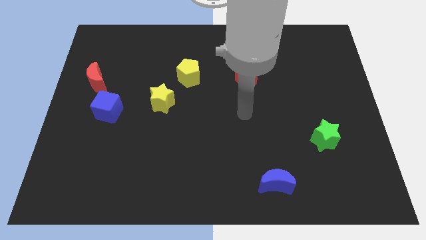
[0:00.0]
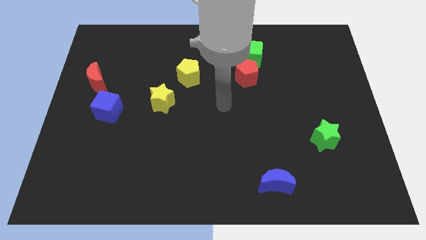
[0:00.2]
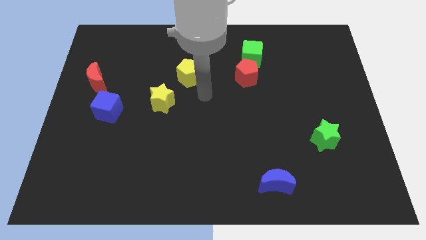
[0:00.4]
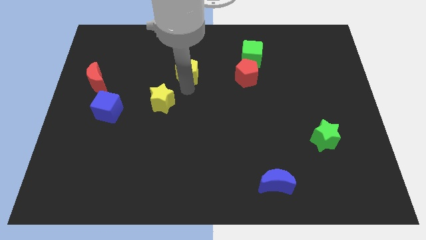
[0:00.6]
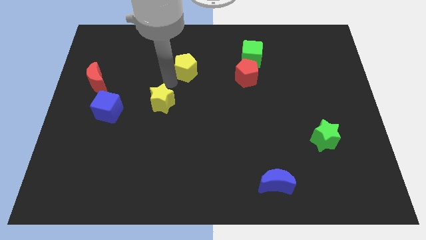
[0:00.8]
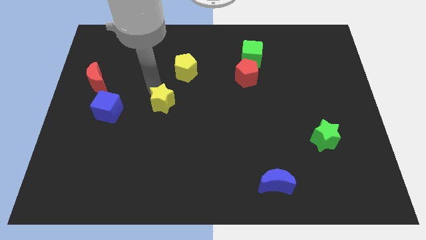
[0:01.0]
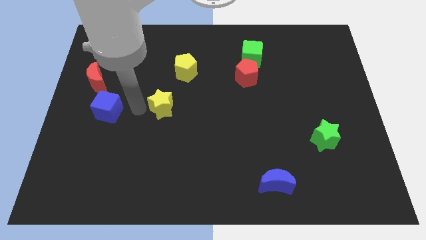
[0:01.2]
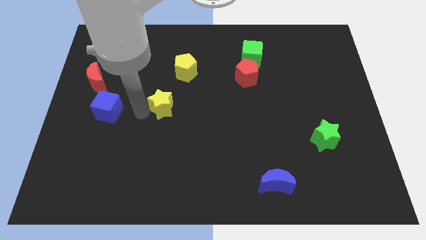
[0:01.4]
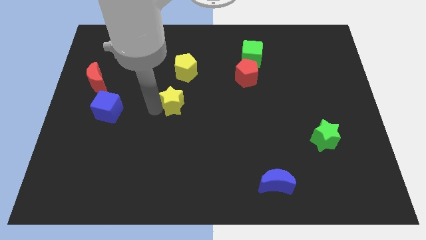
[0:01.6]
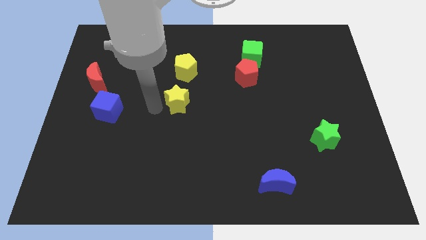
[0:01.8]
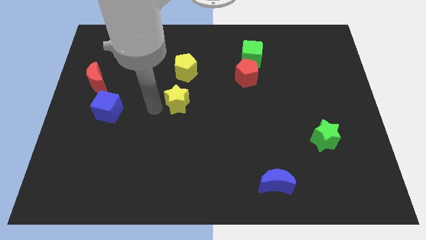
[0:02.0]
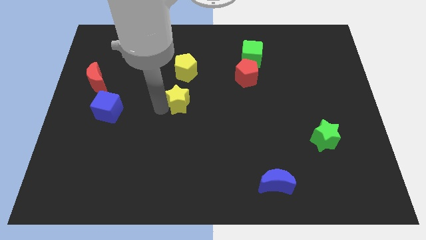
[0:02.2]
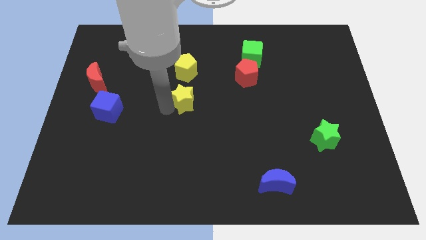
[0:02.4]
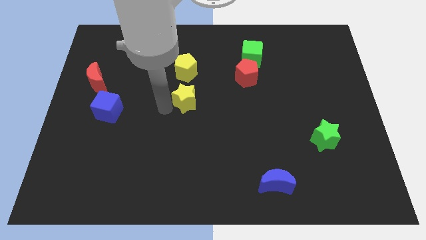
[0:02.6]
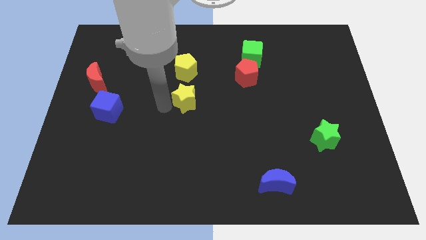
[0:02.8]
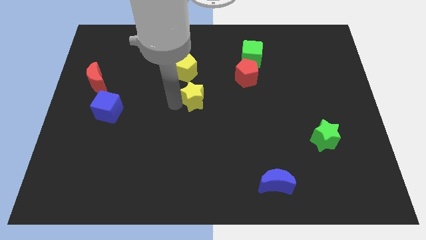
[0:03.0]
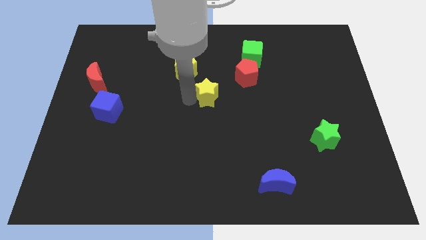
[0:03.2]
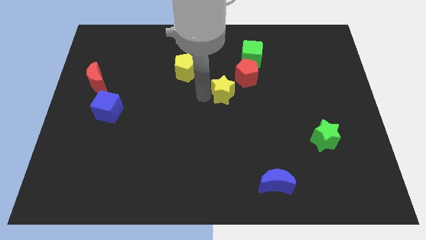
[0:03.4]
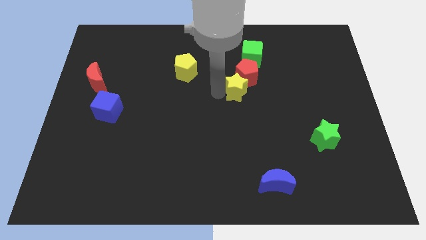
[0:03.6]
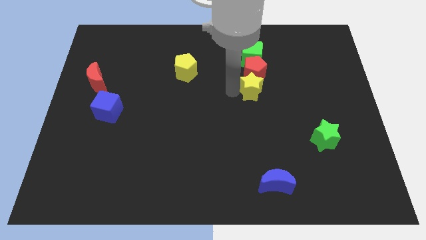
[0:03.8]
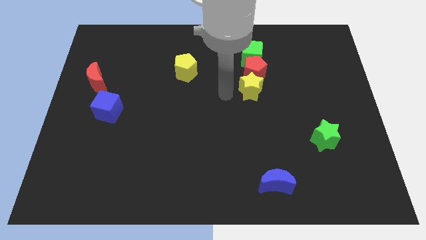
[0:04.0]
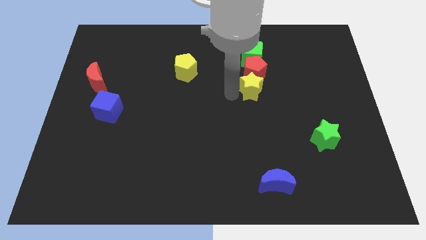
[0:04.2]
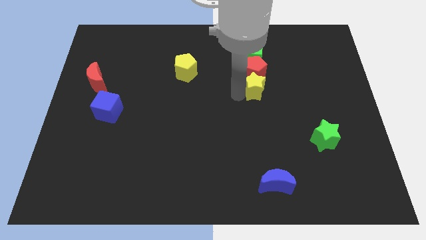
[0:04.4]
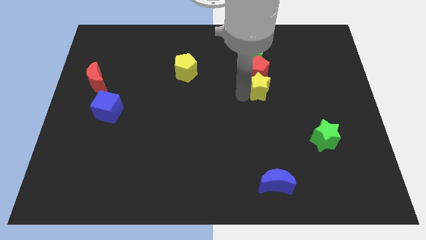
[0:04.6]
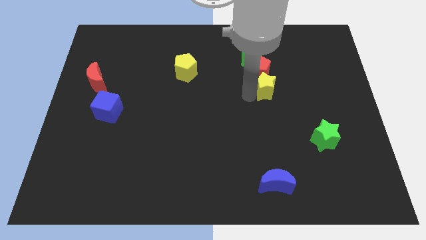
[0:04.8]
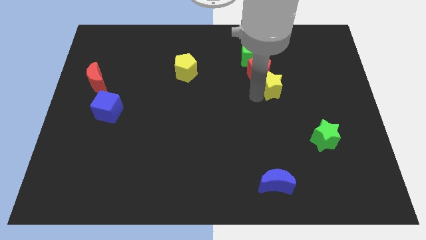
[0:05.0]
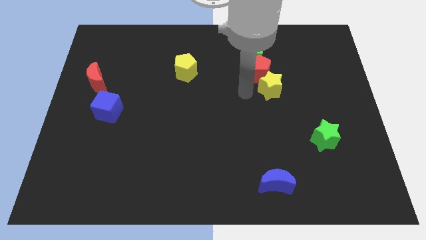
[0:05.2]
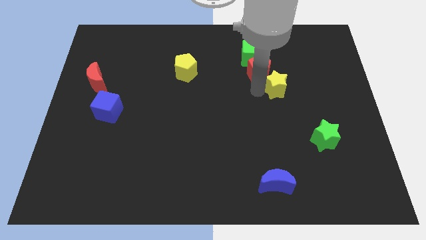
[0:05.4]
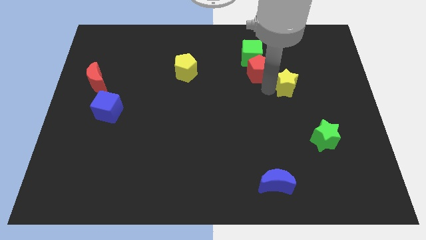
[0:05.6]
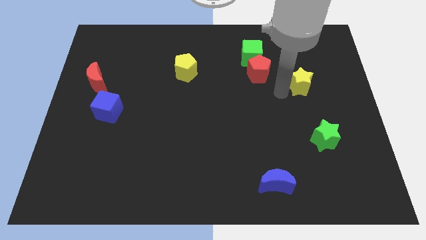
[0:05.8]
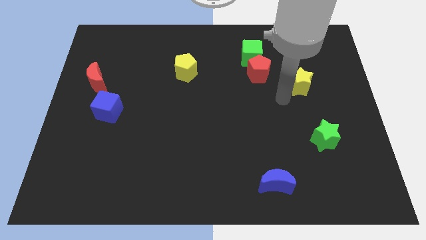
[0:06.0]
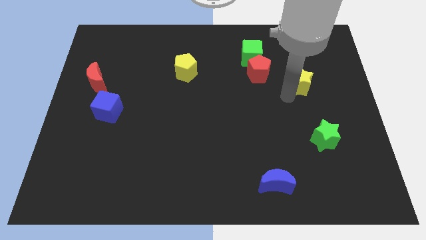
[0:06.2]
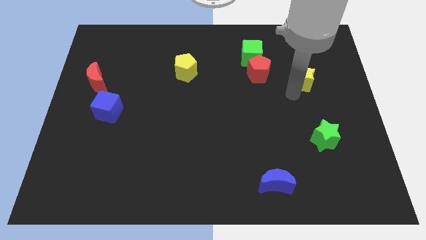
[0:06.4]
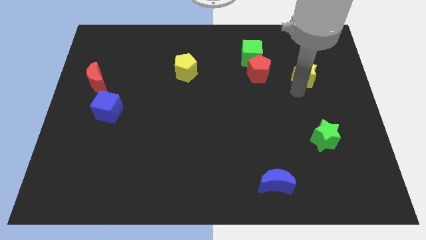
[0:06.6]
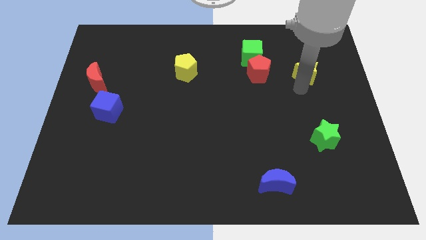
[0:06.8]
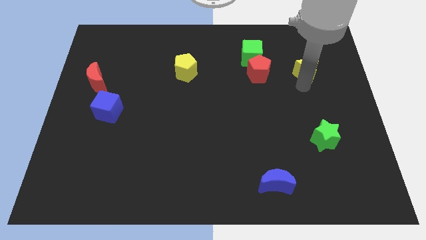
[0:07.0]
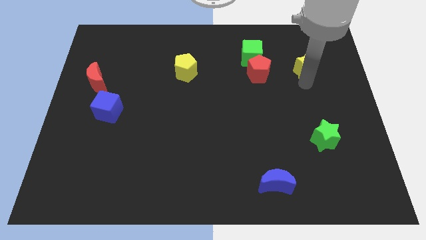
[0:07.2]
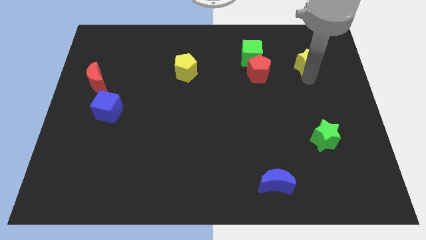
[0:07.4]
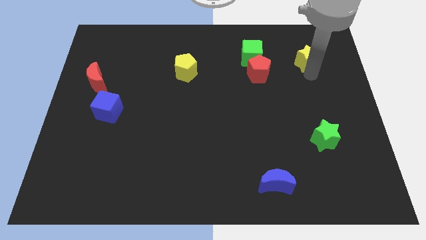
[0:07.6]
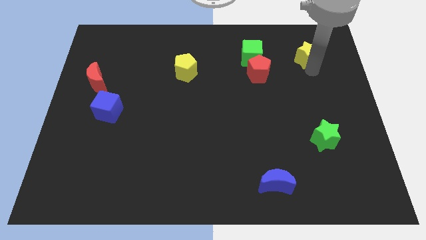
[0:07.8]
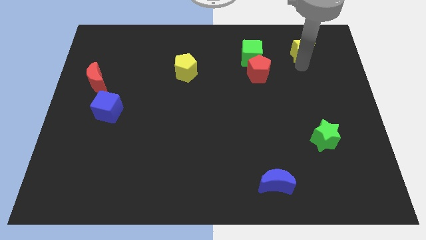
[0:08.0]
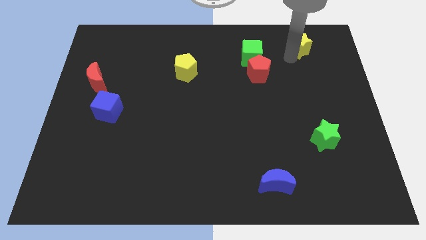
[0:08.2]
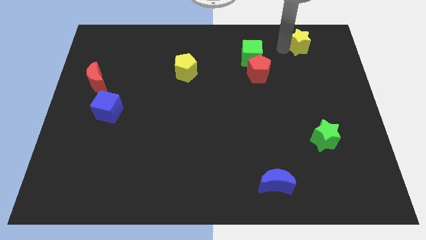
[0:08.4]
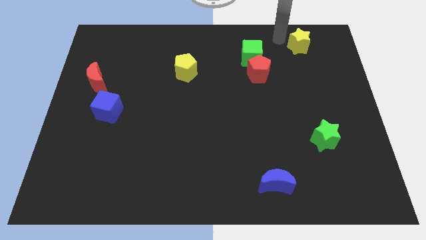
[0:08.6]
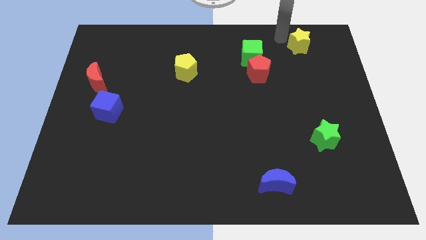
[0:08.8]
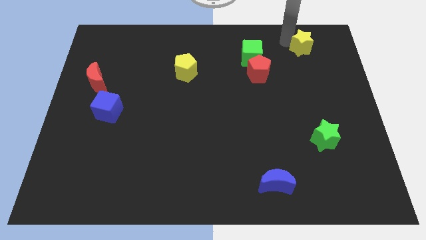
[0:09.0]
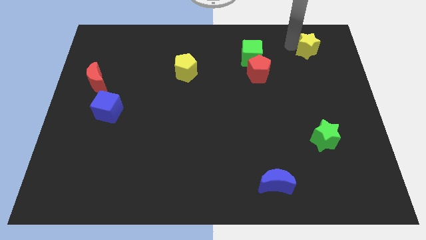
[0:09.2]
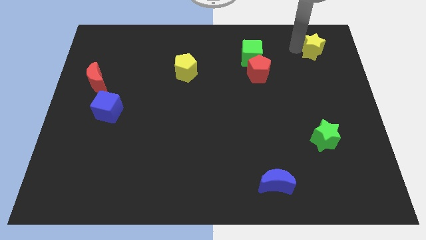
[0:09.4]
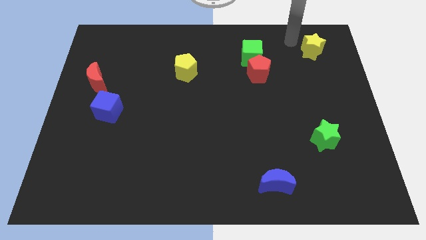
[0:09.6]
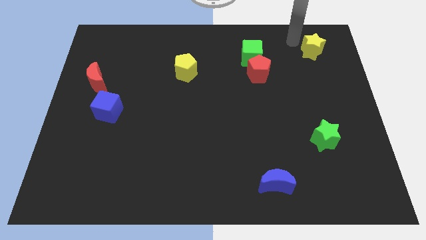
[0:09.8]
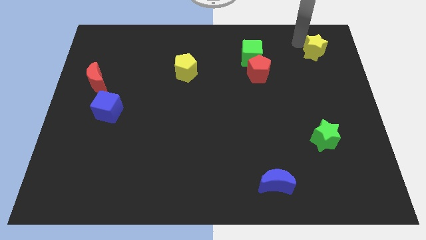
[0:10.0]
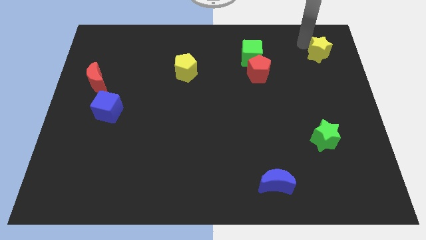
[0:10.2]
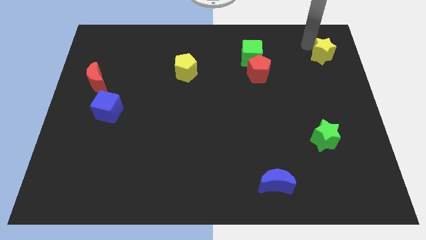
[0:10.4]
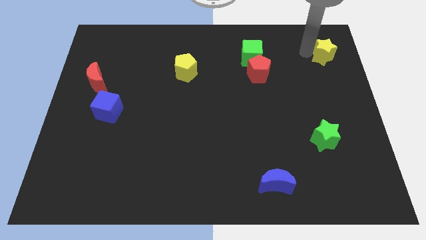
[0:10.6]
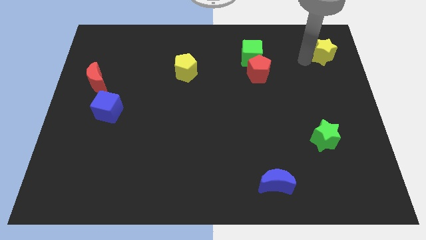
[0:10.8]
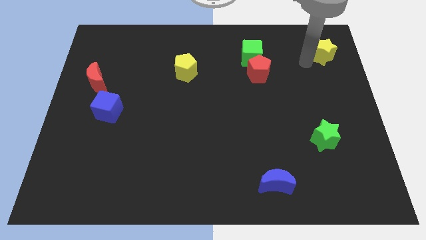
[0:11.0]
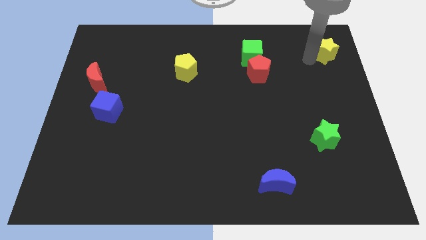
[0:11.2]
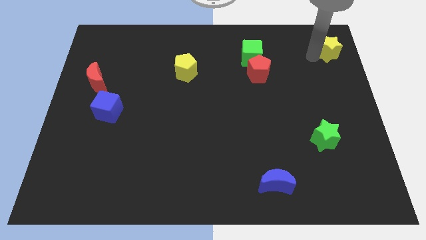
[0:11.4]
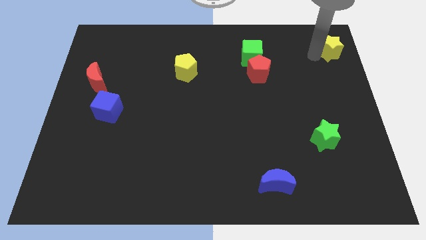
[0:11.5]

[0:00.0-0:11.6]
push the yellow star to the upper right corner

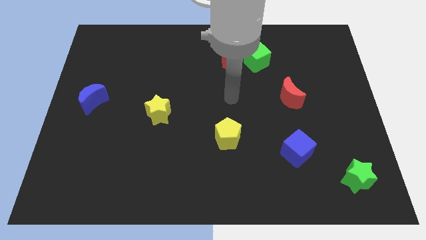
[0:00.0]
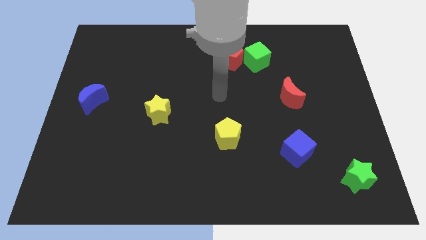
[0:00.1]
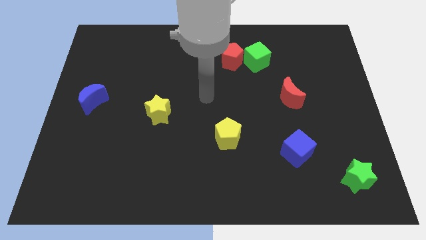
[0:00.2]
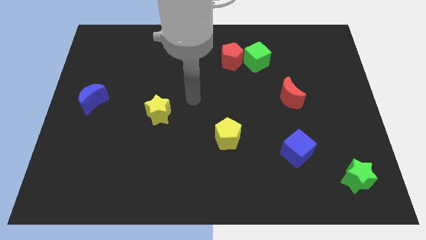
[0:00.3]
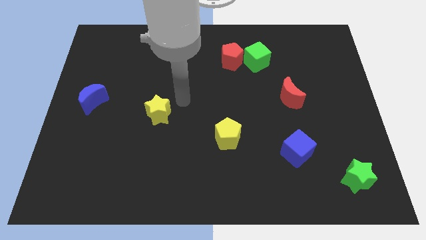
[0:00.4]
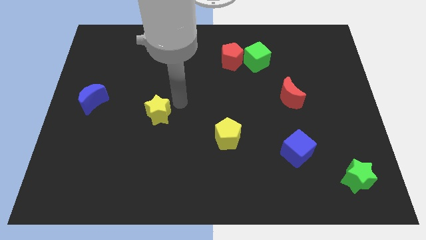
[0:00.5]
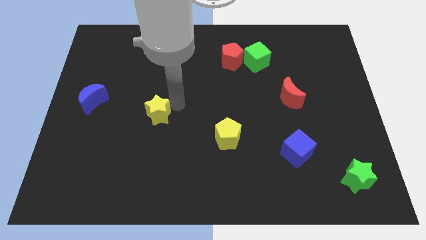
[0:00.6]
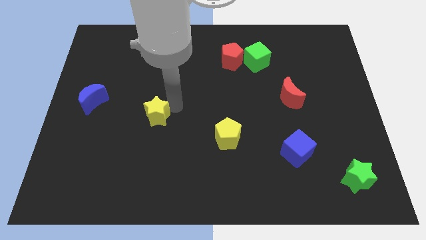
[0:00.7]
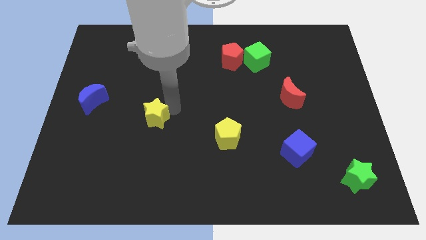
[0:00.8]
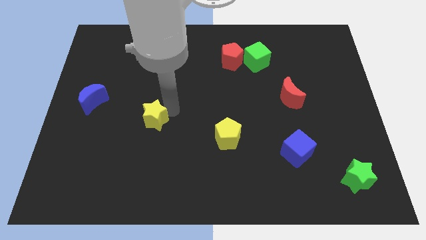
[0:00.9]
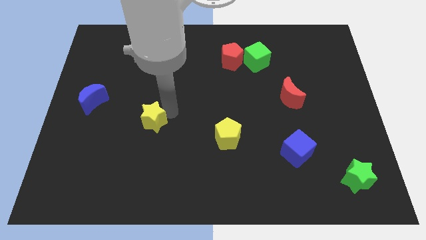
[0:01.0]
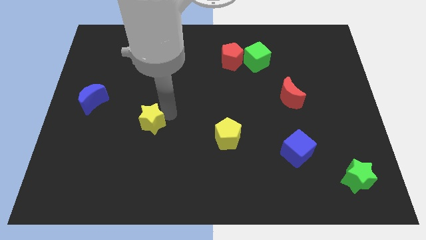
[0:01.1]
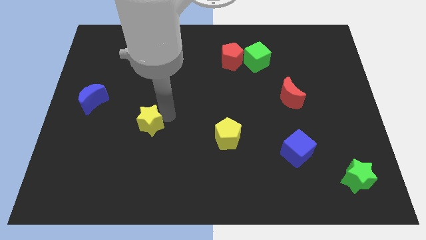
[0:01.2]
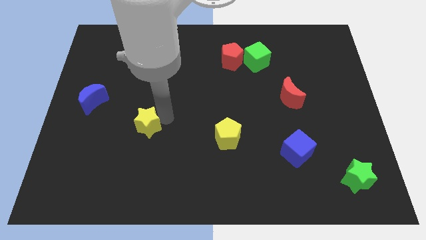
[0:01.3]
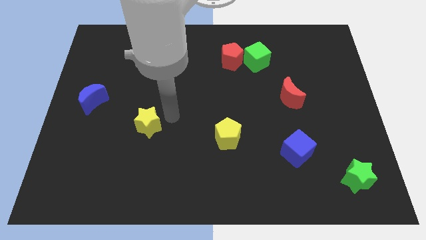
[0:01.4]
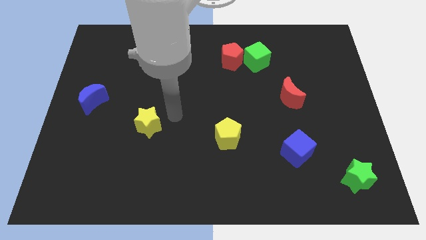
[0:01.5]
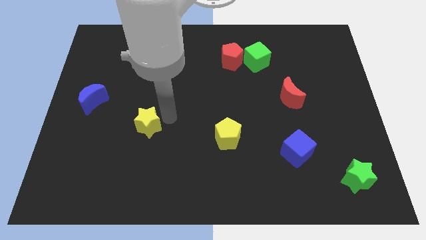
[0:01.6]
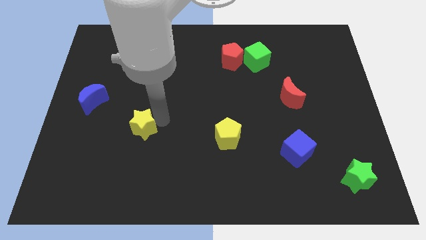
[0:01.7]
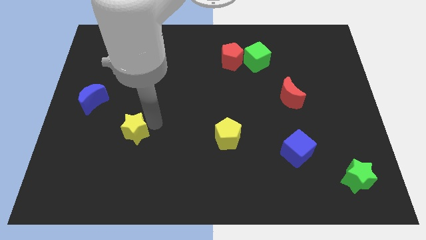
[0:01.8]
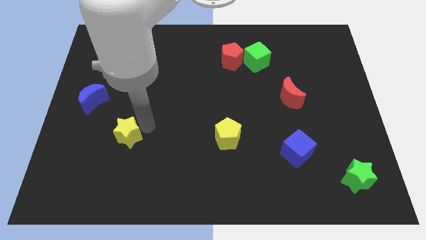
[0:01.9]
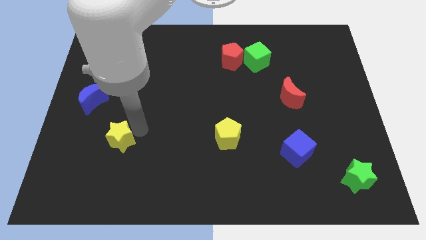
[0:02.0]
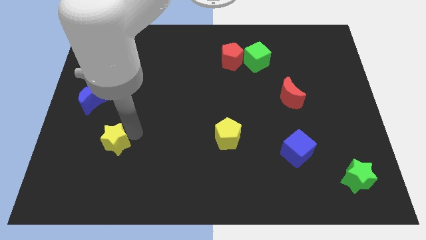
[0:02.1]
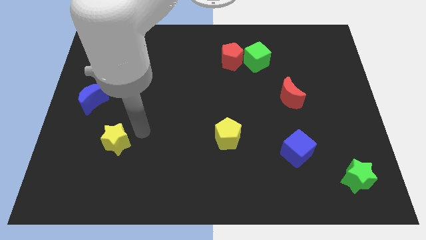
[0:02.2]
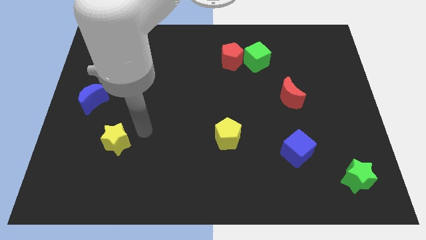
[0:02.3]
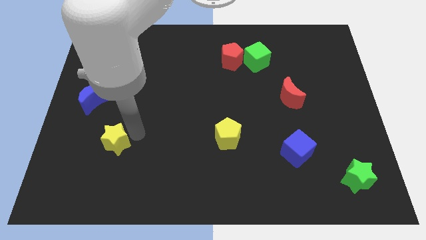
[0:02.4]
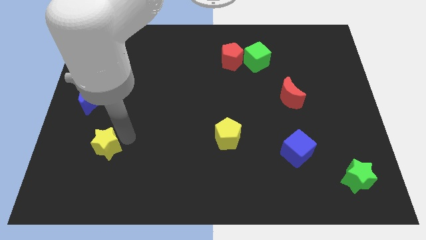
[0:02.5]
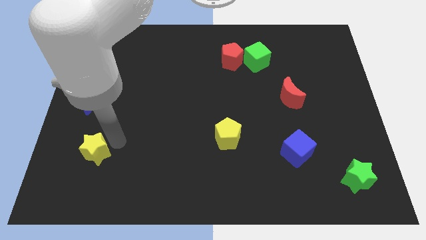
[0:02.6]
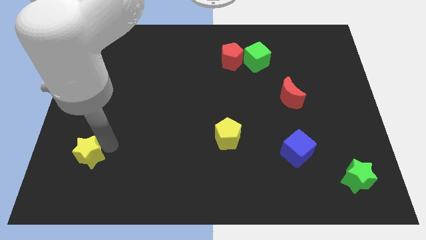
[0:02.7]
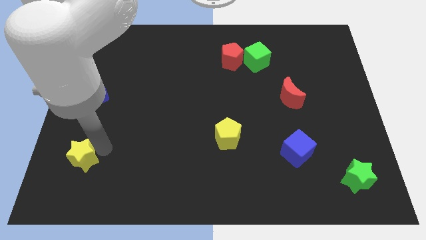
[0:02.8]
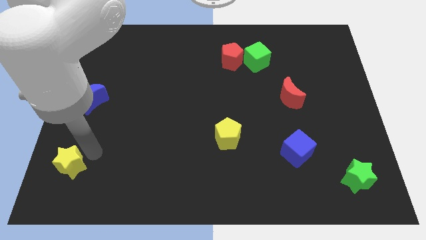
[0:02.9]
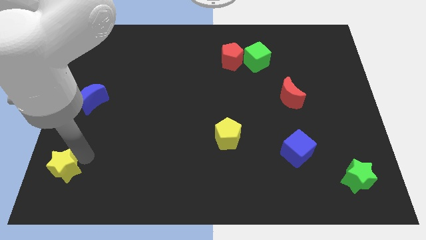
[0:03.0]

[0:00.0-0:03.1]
slide the yellow star to the lower left corner
